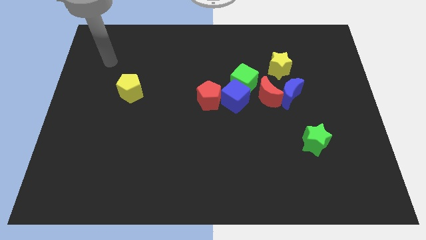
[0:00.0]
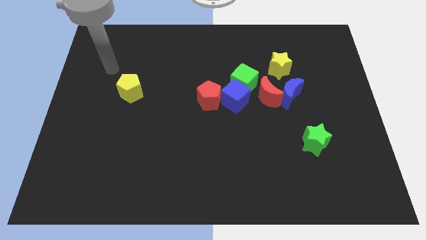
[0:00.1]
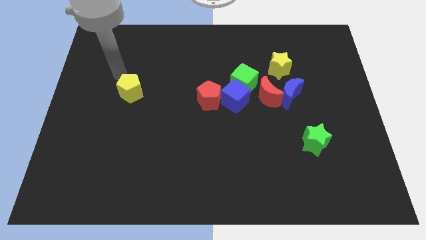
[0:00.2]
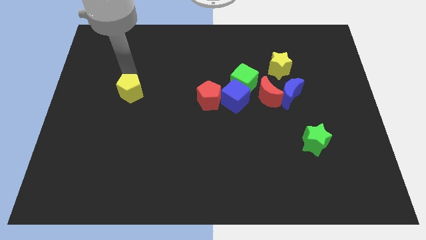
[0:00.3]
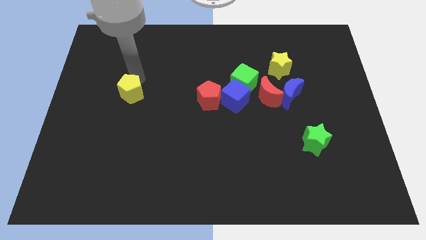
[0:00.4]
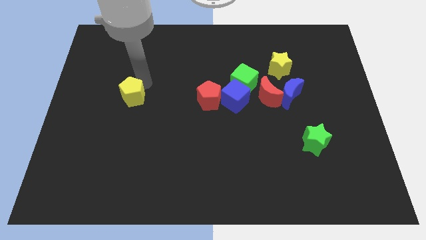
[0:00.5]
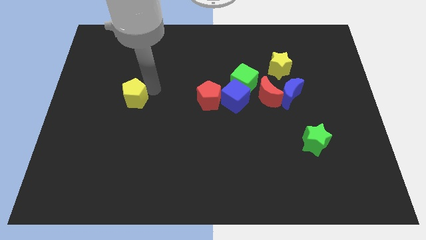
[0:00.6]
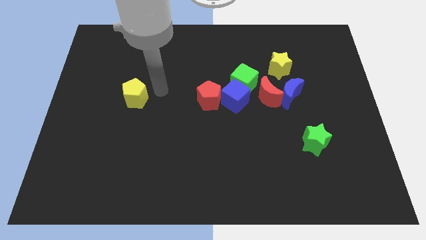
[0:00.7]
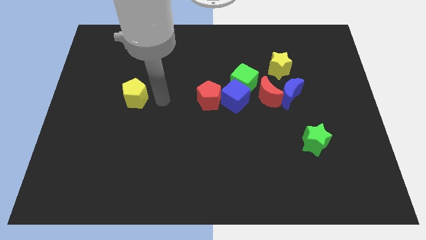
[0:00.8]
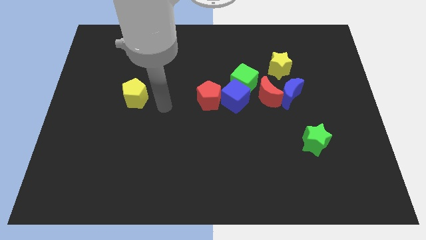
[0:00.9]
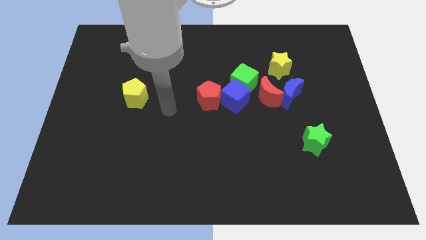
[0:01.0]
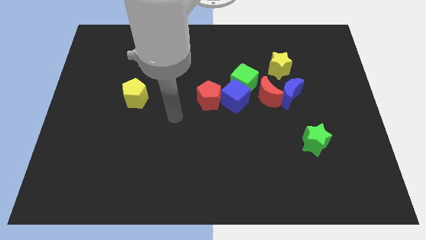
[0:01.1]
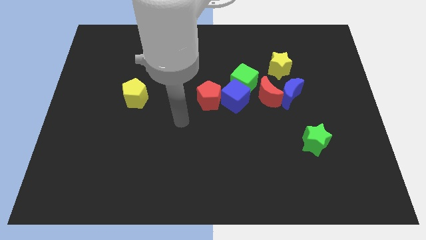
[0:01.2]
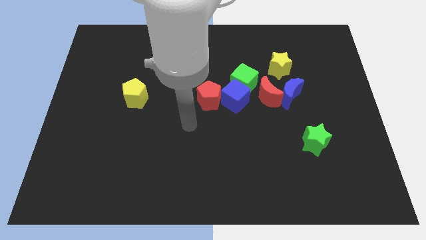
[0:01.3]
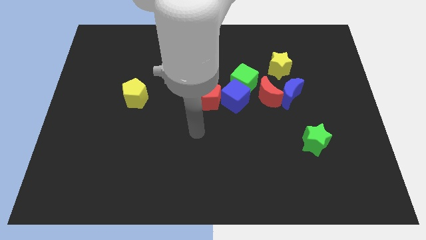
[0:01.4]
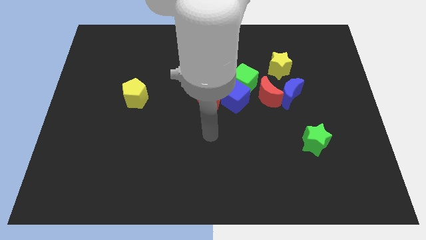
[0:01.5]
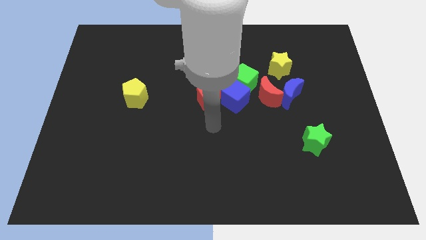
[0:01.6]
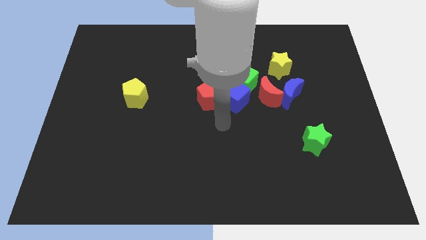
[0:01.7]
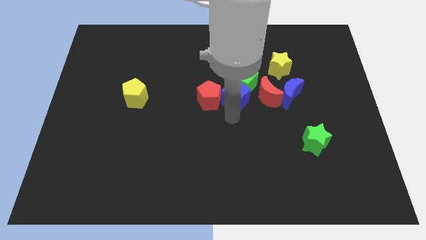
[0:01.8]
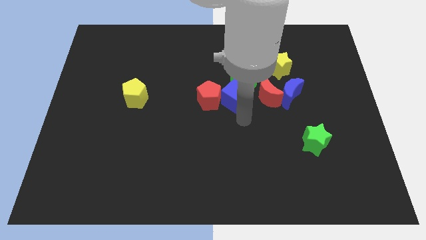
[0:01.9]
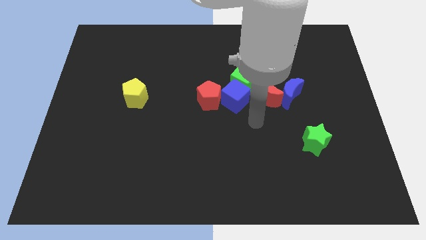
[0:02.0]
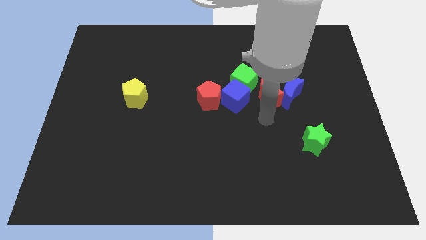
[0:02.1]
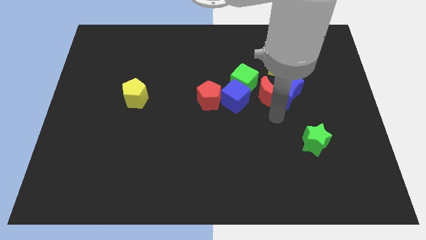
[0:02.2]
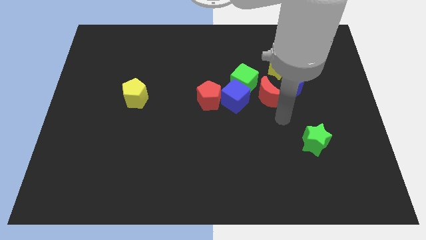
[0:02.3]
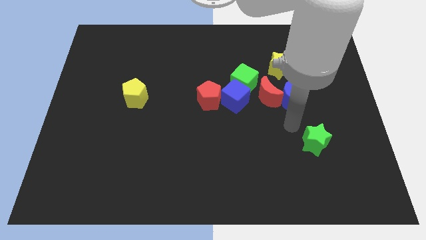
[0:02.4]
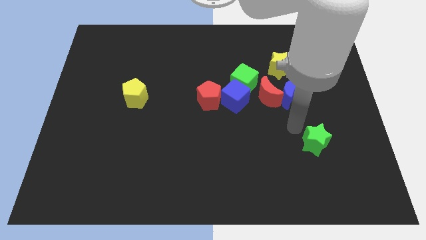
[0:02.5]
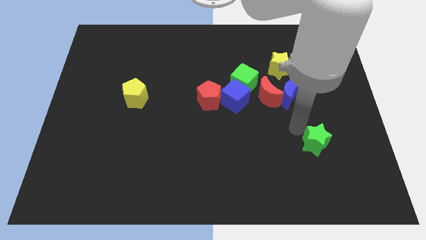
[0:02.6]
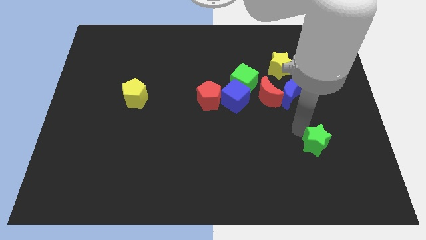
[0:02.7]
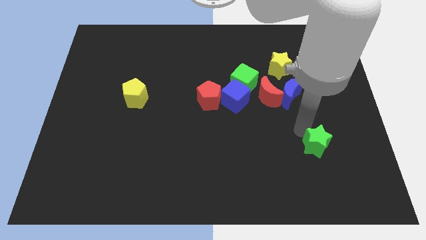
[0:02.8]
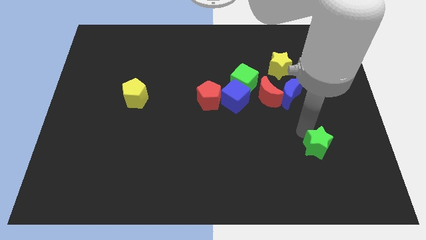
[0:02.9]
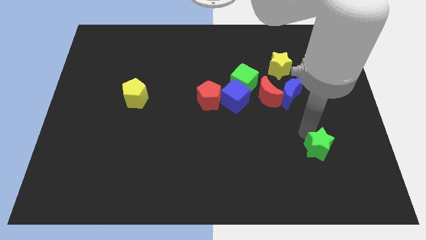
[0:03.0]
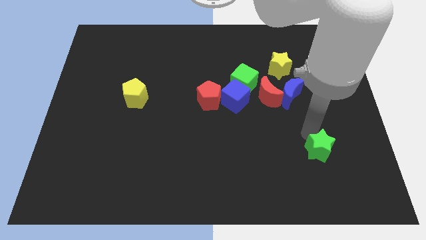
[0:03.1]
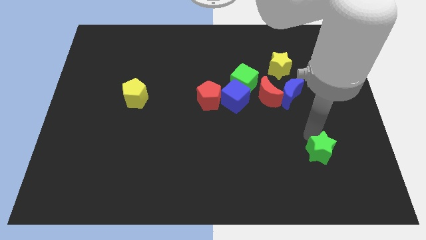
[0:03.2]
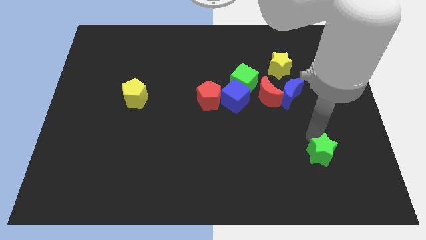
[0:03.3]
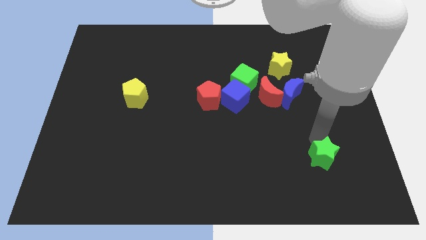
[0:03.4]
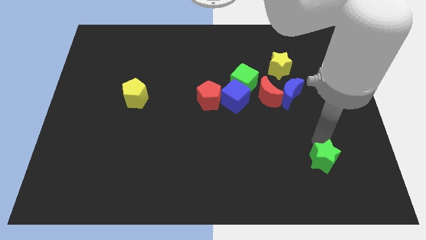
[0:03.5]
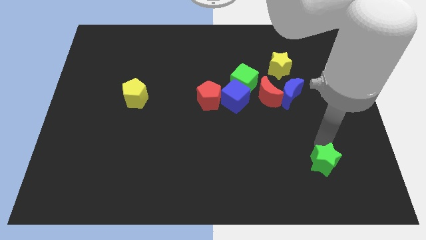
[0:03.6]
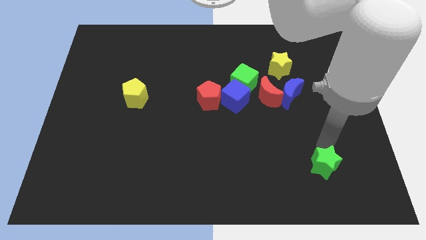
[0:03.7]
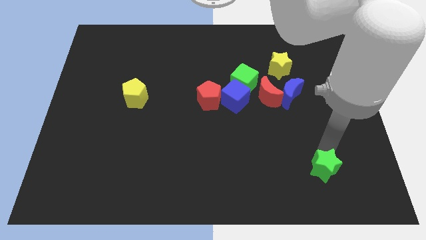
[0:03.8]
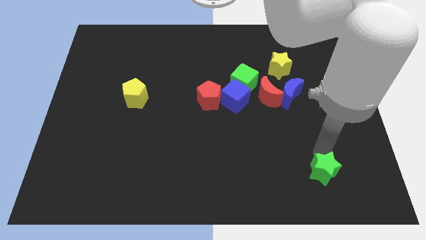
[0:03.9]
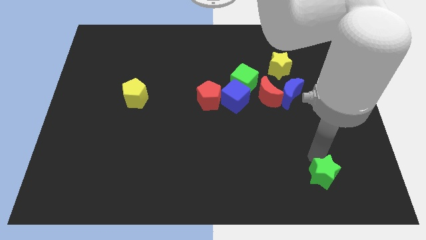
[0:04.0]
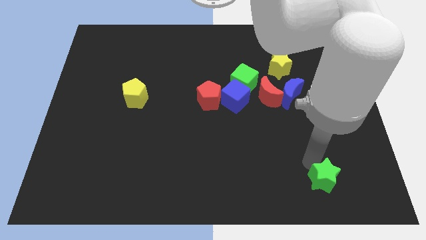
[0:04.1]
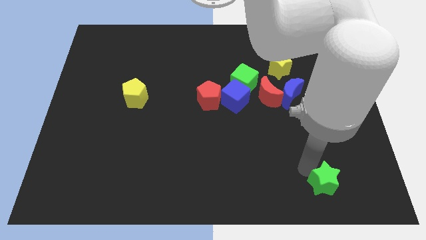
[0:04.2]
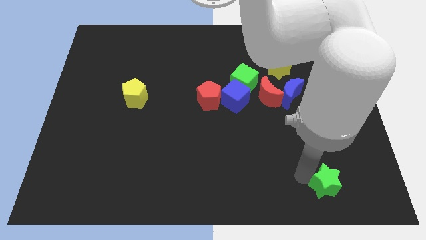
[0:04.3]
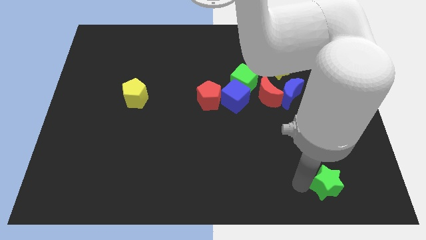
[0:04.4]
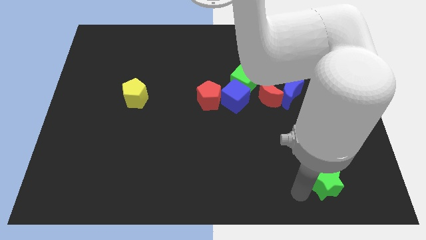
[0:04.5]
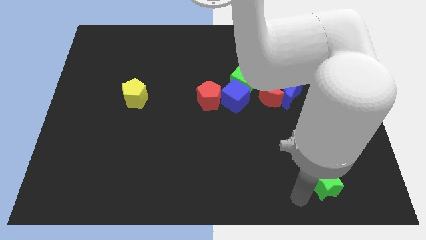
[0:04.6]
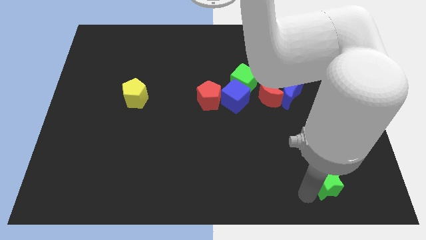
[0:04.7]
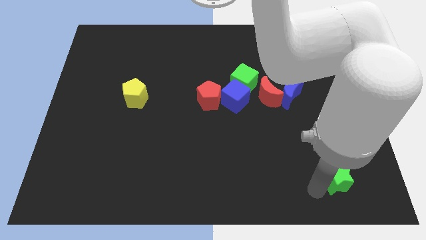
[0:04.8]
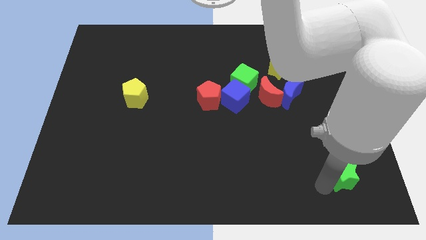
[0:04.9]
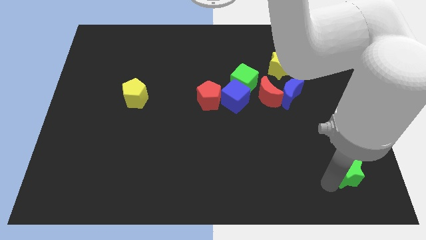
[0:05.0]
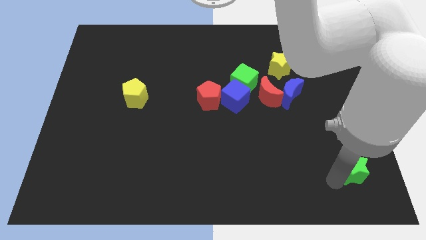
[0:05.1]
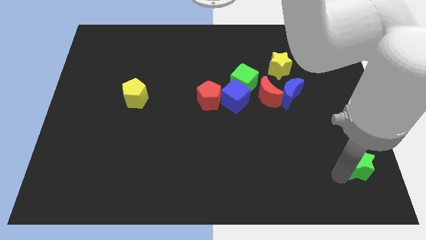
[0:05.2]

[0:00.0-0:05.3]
push the green star to the lower right corner

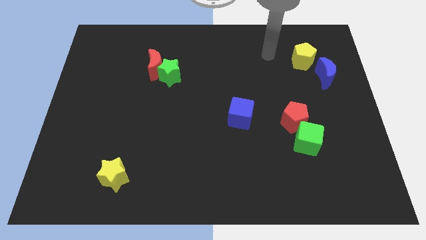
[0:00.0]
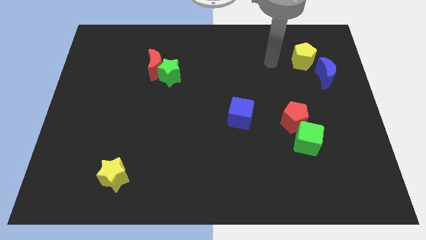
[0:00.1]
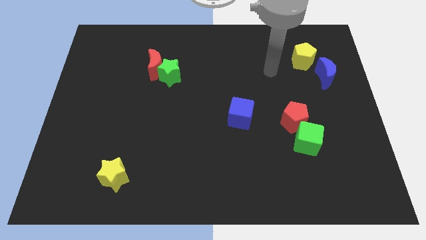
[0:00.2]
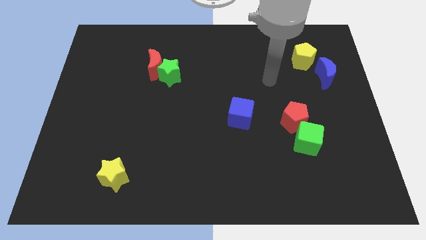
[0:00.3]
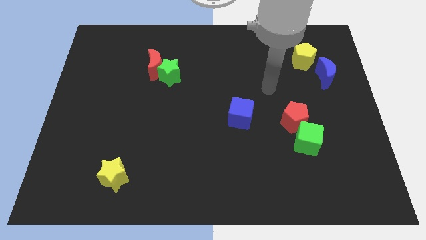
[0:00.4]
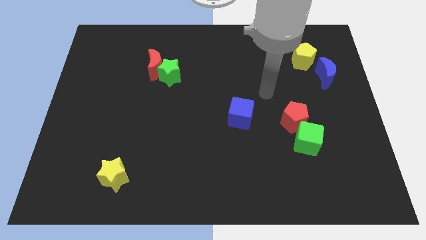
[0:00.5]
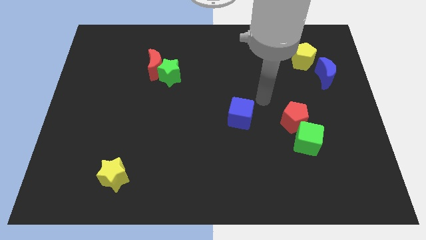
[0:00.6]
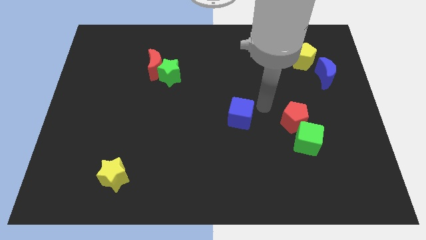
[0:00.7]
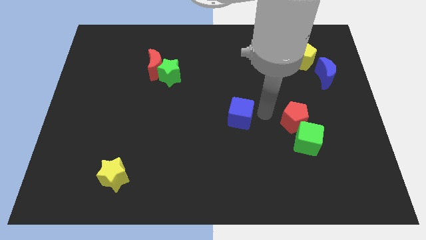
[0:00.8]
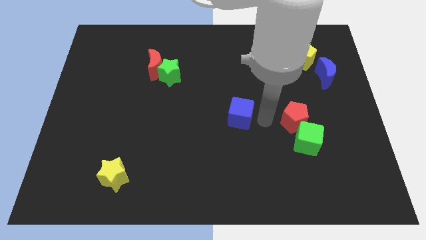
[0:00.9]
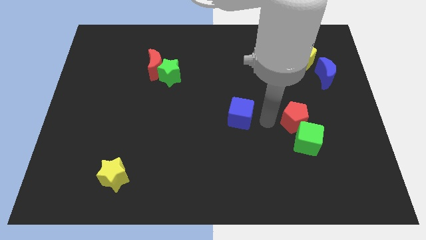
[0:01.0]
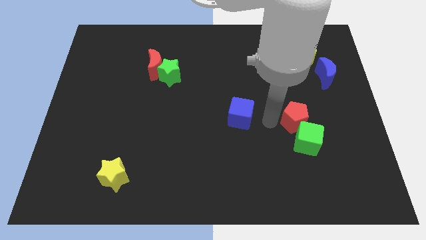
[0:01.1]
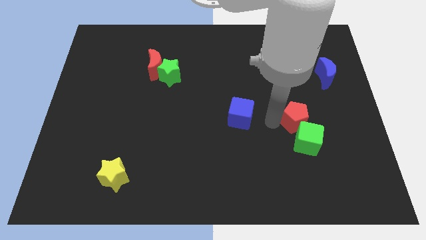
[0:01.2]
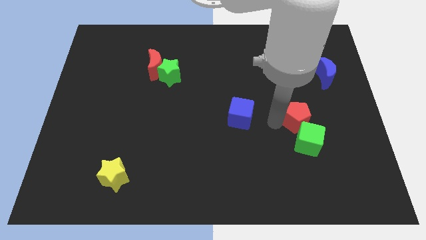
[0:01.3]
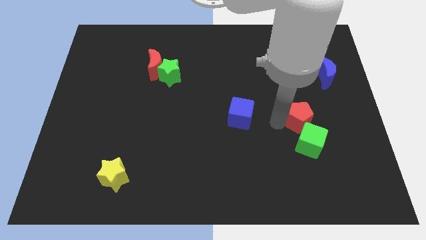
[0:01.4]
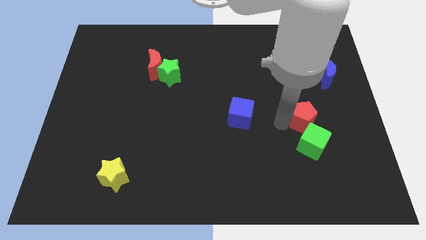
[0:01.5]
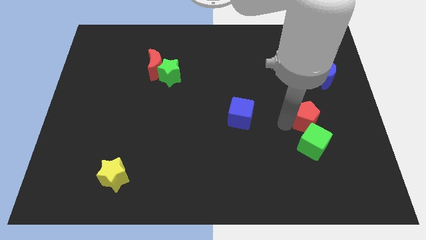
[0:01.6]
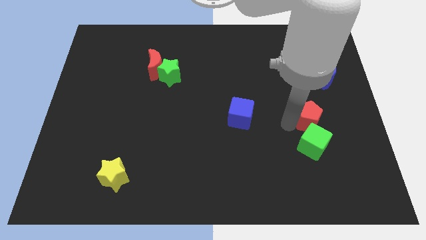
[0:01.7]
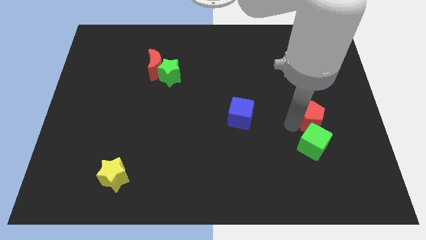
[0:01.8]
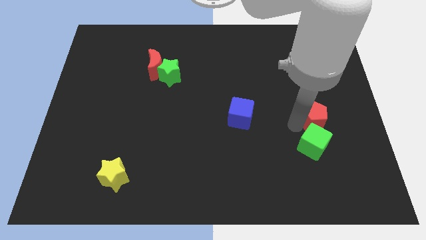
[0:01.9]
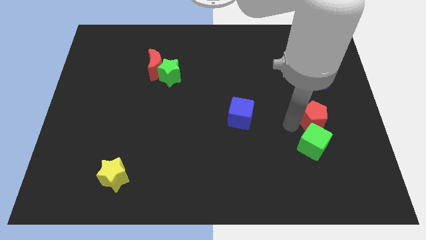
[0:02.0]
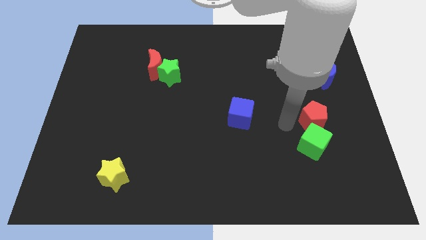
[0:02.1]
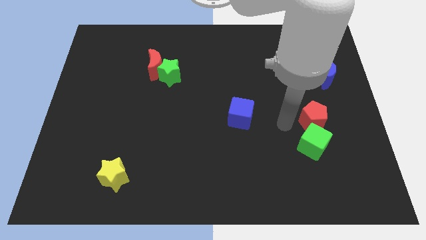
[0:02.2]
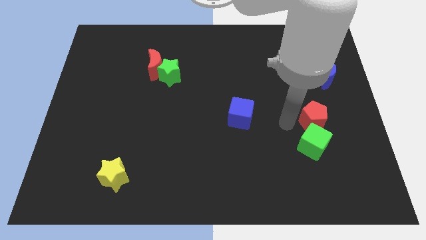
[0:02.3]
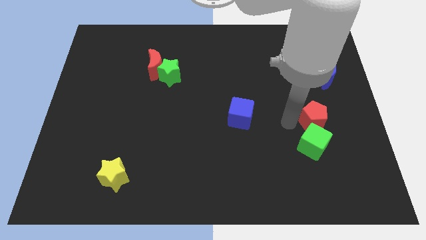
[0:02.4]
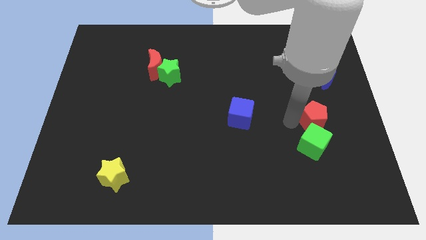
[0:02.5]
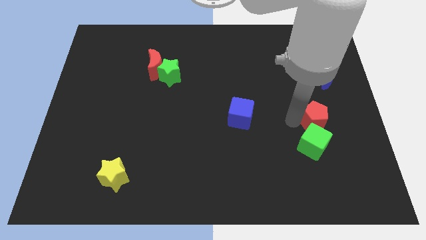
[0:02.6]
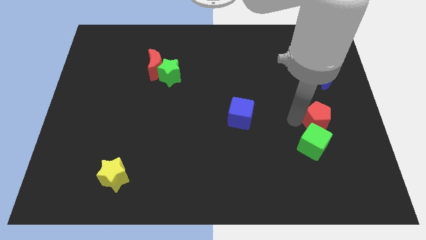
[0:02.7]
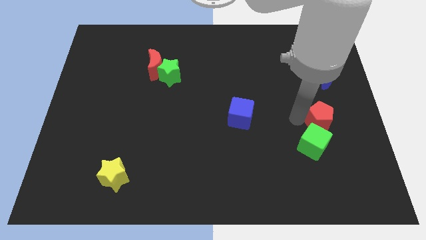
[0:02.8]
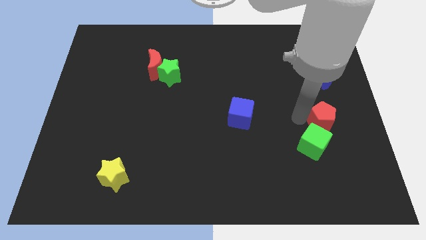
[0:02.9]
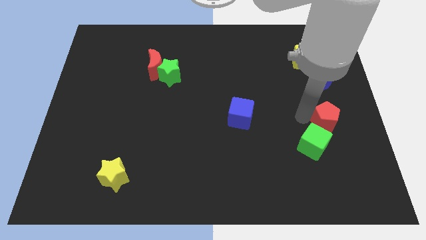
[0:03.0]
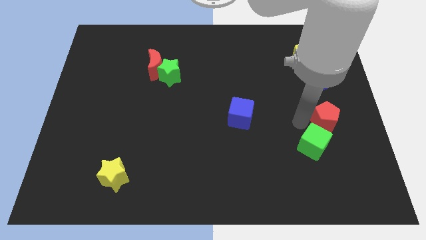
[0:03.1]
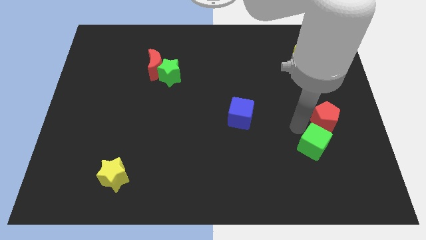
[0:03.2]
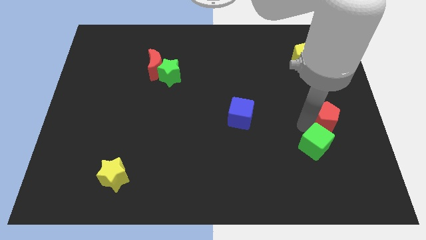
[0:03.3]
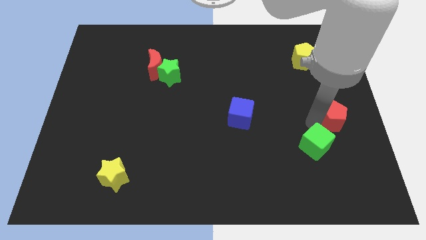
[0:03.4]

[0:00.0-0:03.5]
push the red pentagon to the right side
